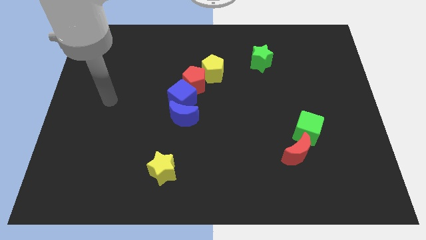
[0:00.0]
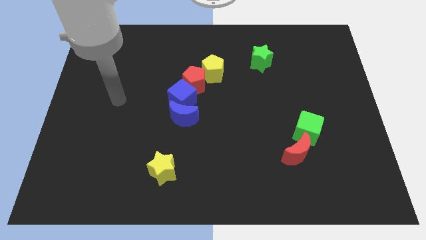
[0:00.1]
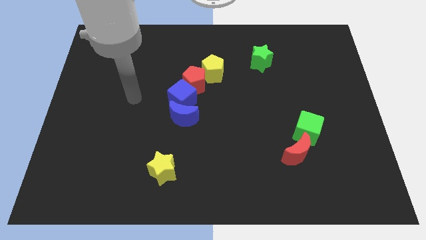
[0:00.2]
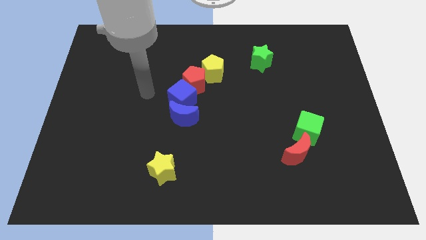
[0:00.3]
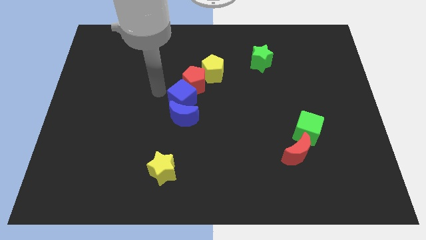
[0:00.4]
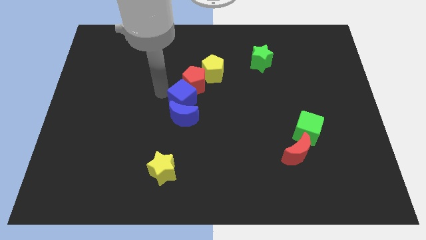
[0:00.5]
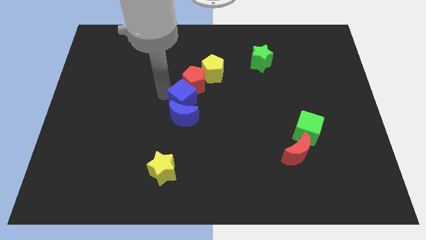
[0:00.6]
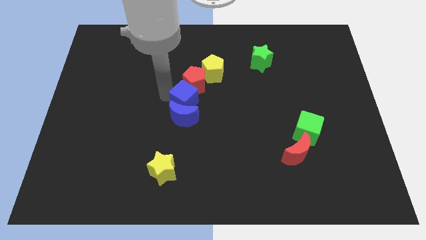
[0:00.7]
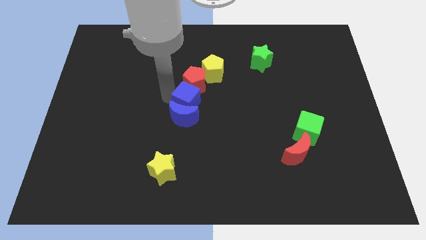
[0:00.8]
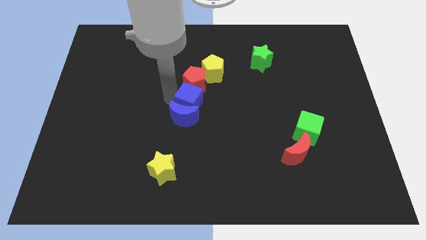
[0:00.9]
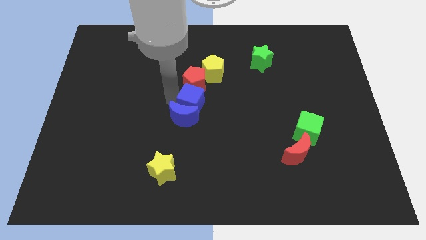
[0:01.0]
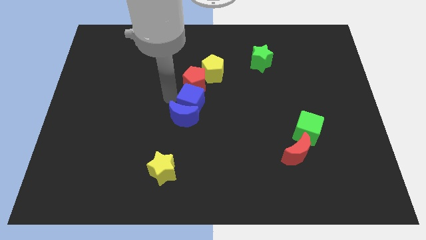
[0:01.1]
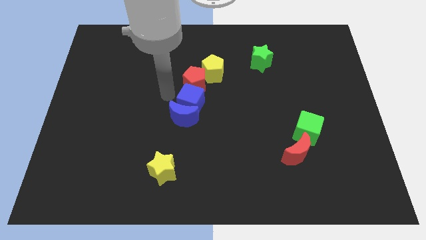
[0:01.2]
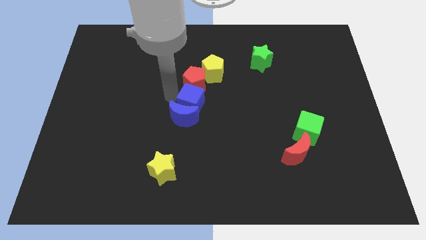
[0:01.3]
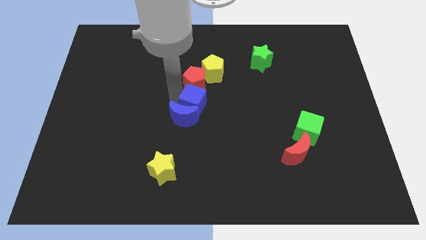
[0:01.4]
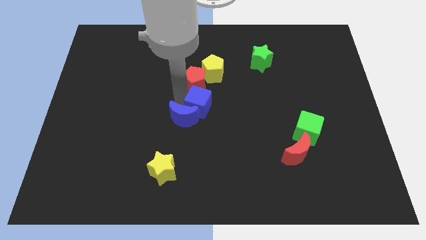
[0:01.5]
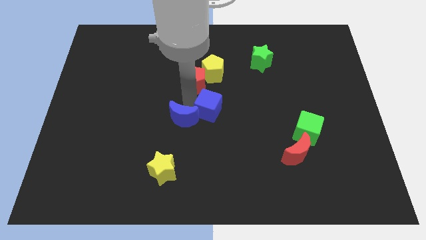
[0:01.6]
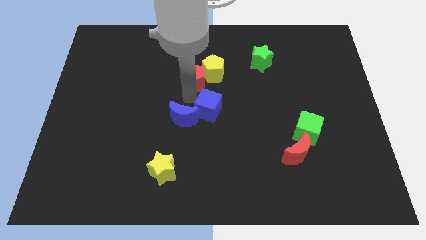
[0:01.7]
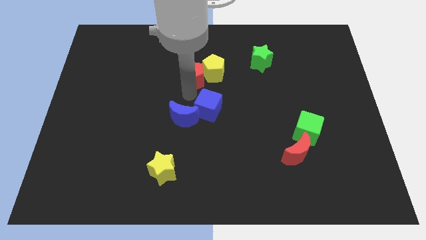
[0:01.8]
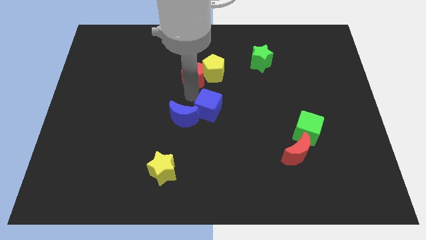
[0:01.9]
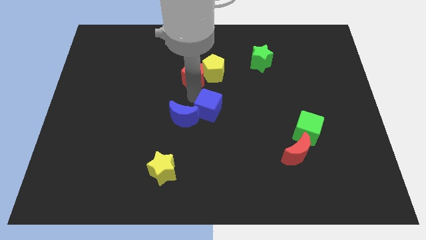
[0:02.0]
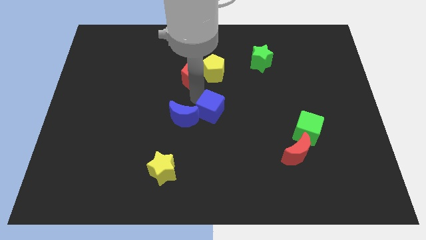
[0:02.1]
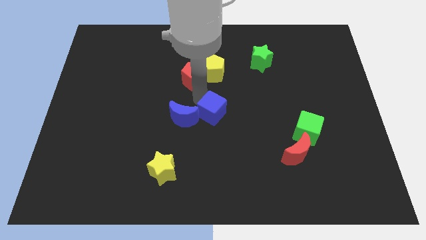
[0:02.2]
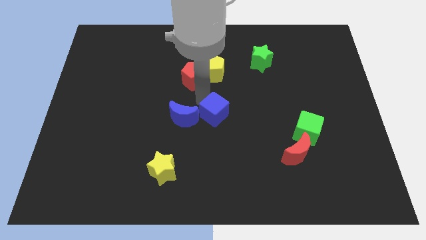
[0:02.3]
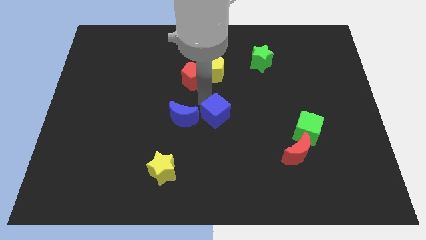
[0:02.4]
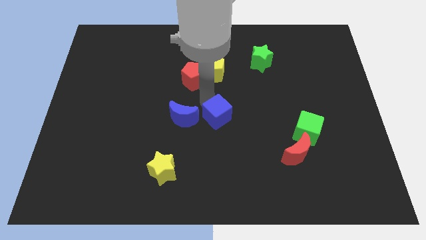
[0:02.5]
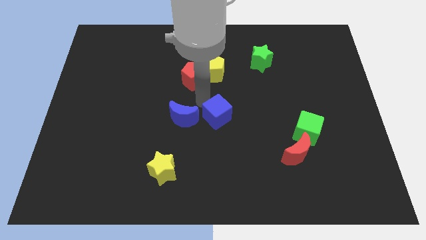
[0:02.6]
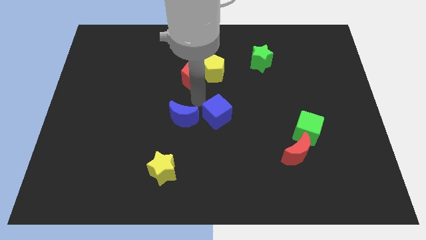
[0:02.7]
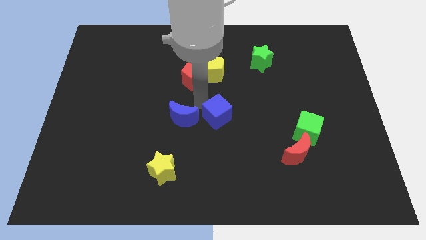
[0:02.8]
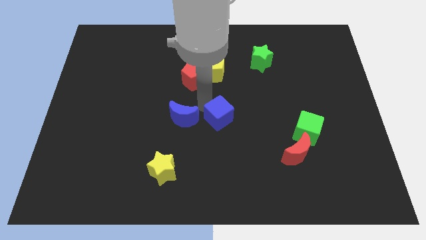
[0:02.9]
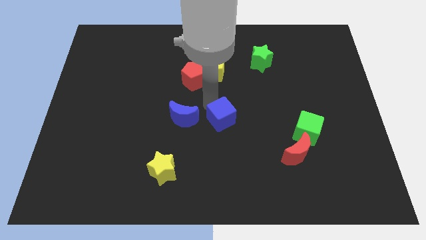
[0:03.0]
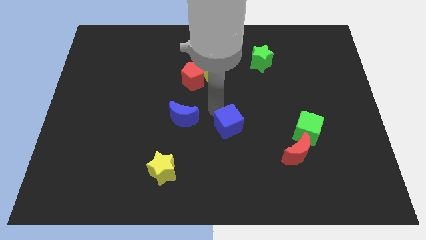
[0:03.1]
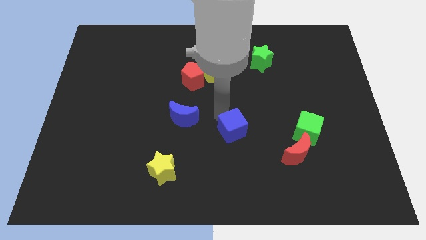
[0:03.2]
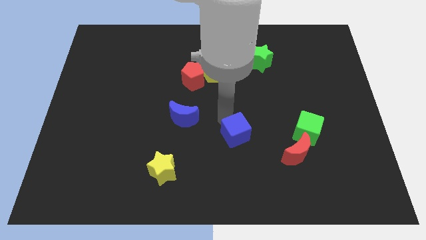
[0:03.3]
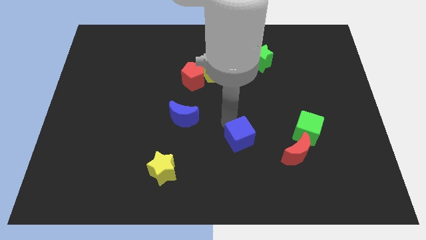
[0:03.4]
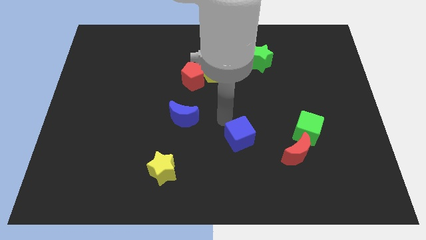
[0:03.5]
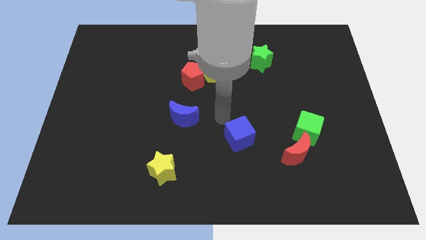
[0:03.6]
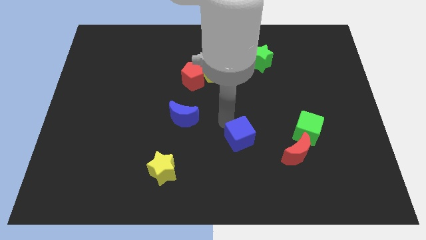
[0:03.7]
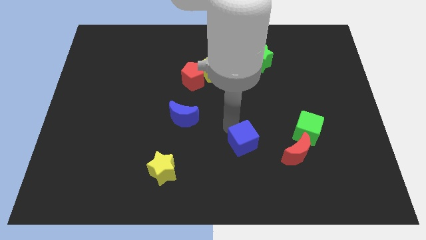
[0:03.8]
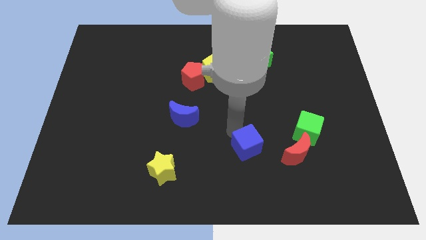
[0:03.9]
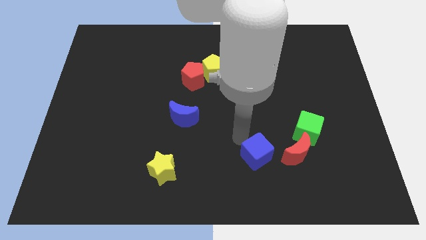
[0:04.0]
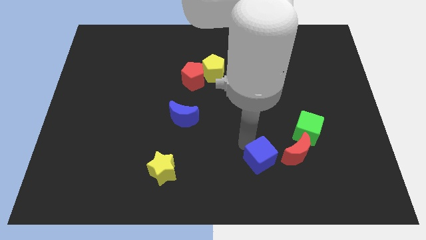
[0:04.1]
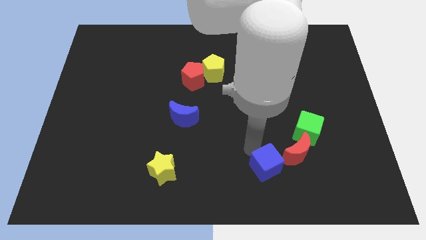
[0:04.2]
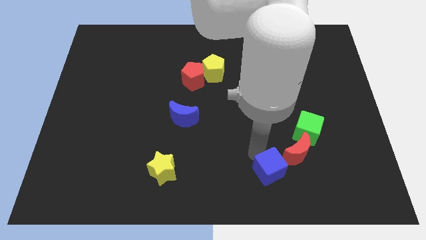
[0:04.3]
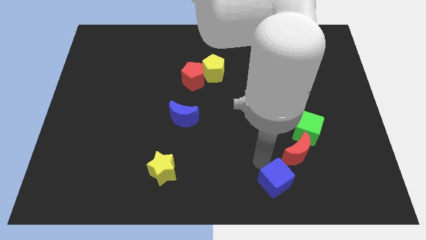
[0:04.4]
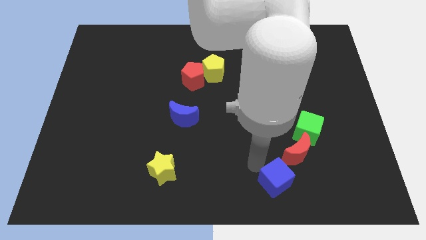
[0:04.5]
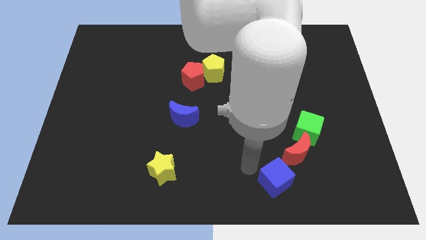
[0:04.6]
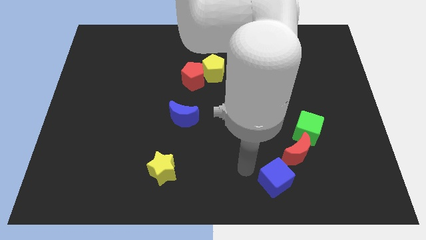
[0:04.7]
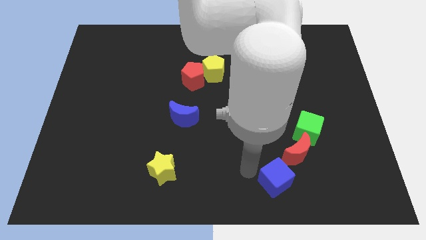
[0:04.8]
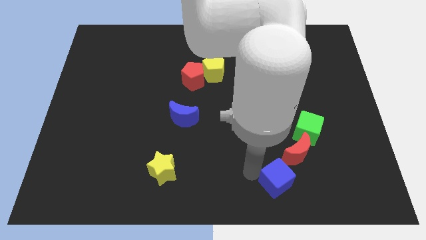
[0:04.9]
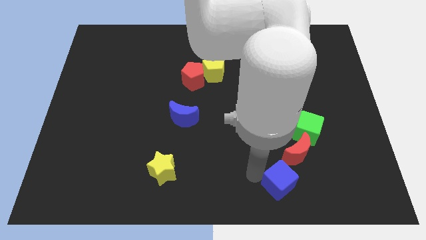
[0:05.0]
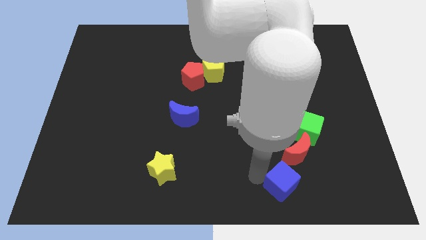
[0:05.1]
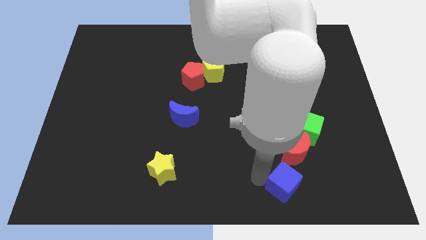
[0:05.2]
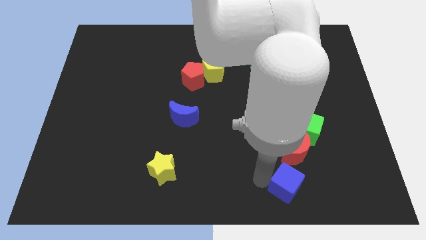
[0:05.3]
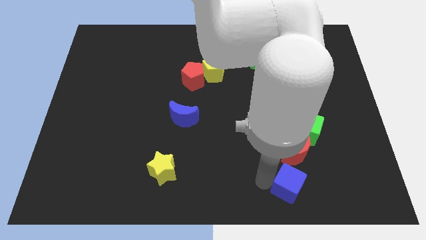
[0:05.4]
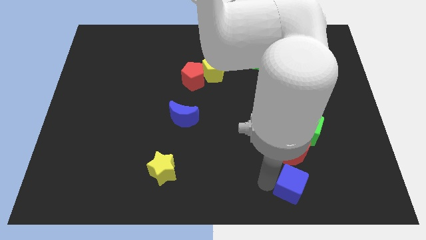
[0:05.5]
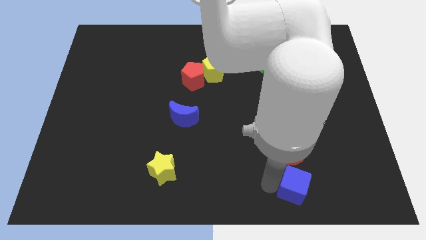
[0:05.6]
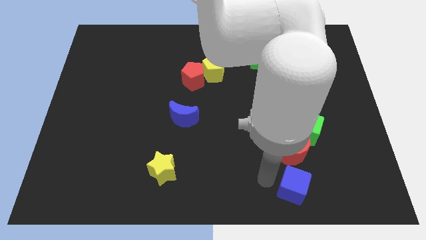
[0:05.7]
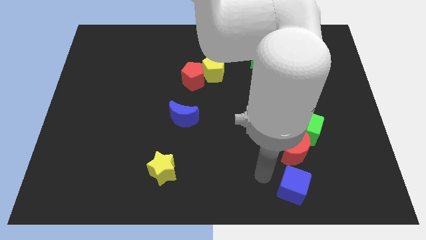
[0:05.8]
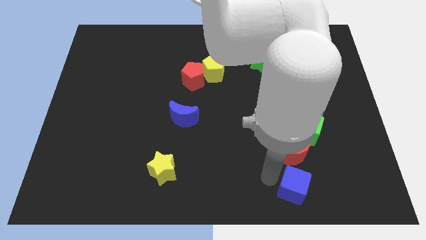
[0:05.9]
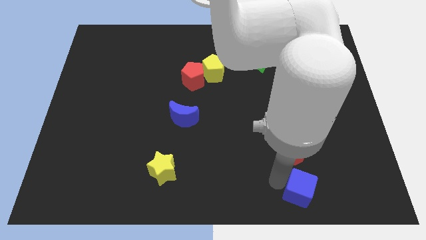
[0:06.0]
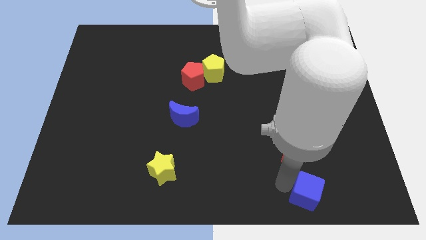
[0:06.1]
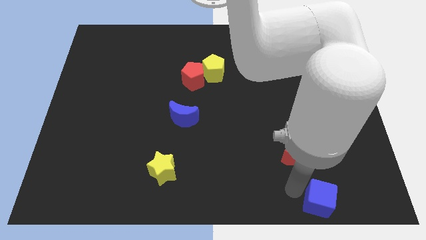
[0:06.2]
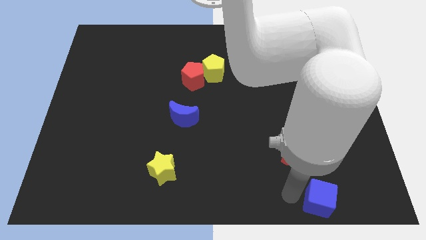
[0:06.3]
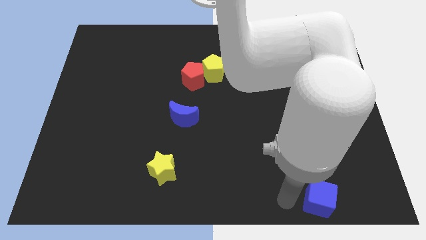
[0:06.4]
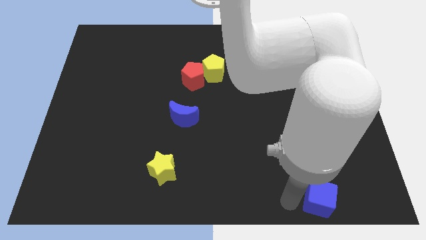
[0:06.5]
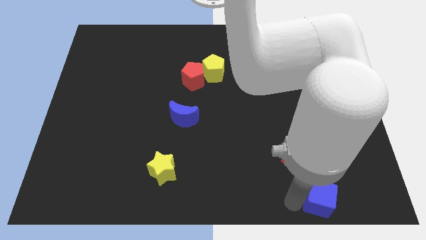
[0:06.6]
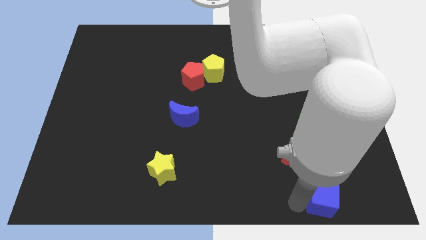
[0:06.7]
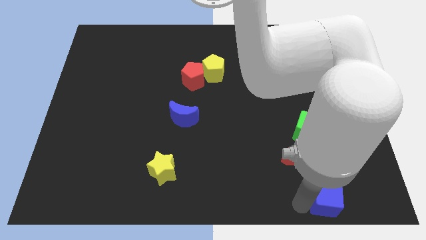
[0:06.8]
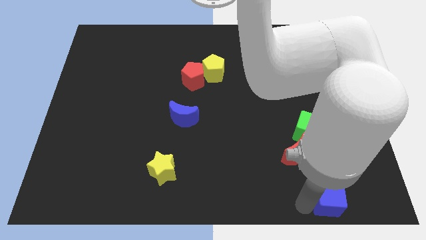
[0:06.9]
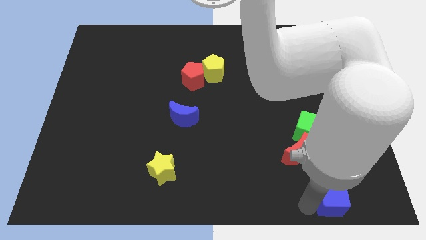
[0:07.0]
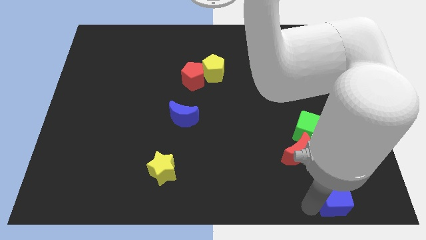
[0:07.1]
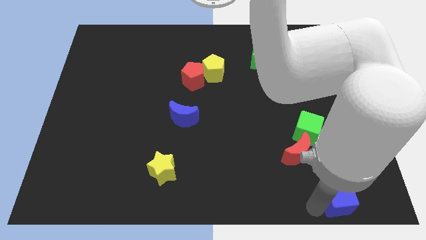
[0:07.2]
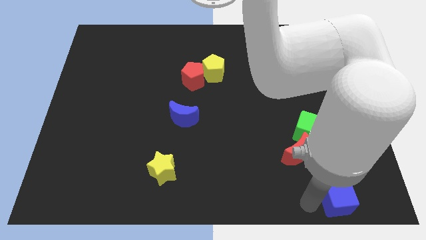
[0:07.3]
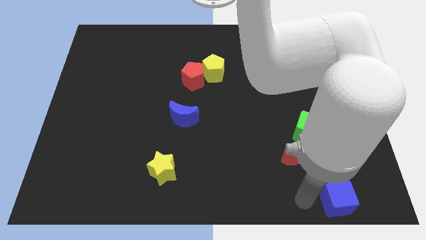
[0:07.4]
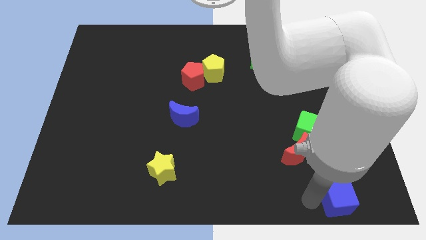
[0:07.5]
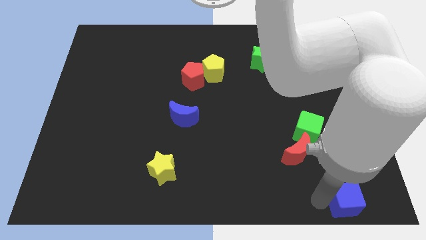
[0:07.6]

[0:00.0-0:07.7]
push the blue cube to the lower right corner
